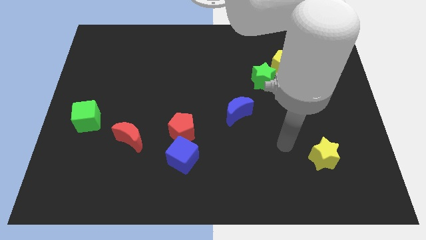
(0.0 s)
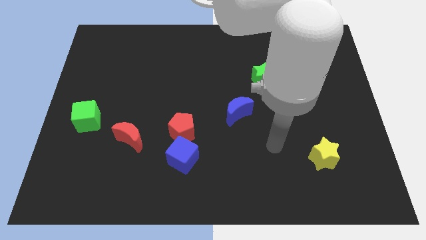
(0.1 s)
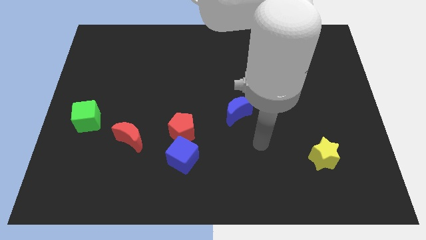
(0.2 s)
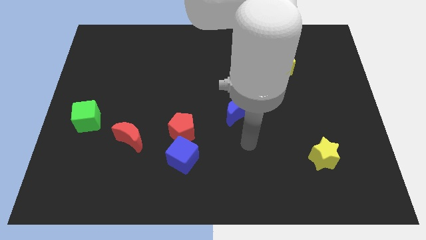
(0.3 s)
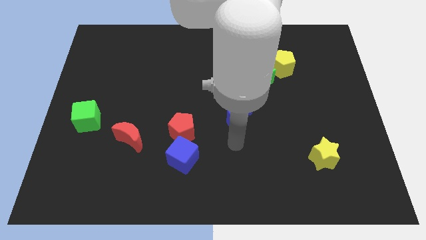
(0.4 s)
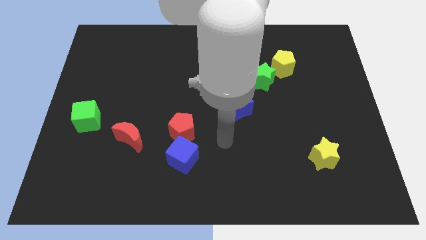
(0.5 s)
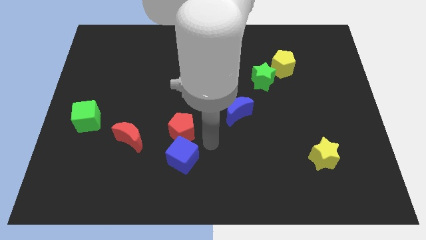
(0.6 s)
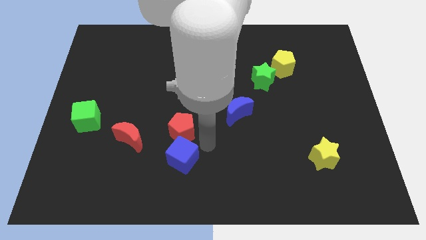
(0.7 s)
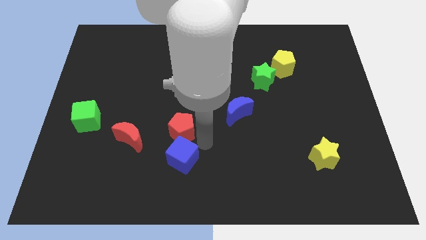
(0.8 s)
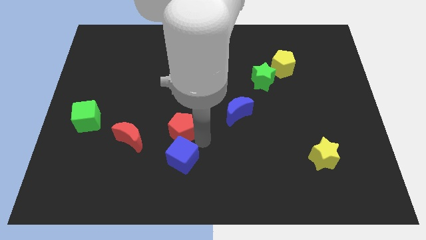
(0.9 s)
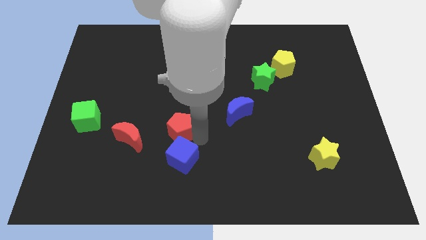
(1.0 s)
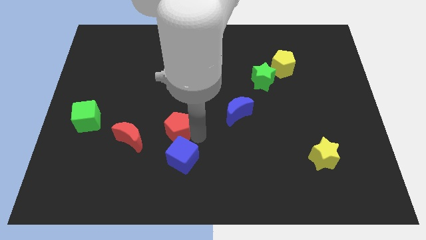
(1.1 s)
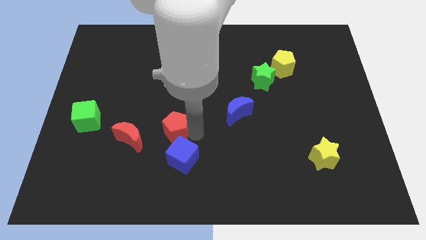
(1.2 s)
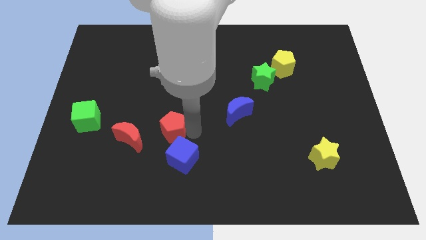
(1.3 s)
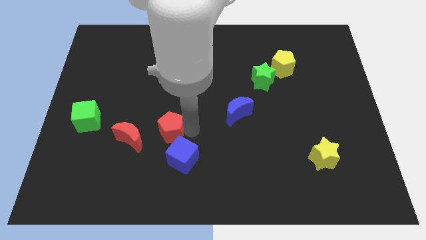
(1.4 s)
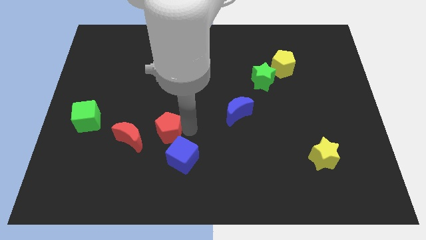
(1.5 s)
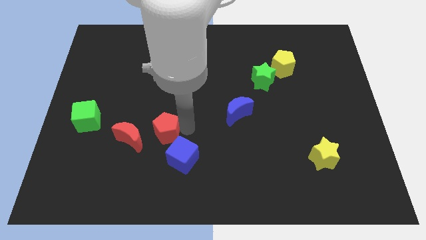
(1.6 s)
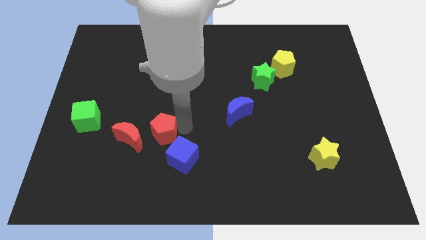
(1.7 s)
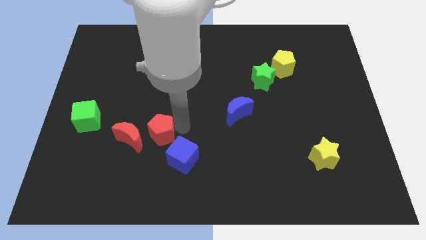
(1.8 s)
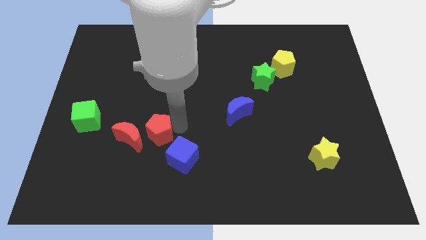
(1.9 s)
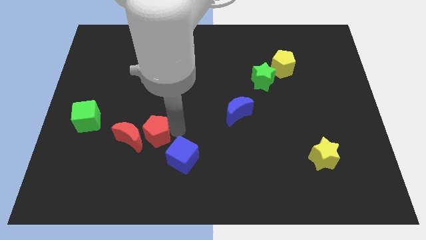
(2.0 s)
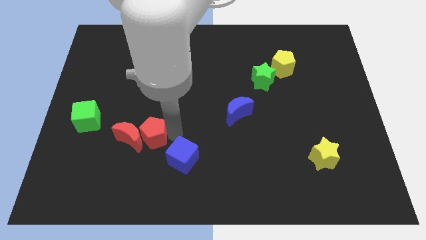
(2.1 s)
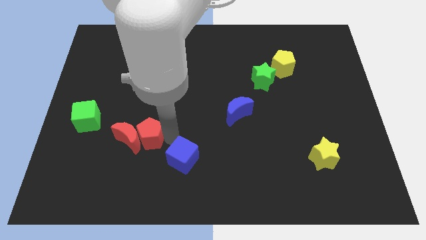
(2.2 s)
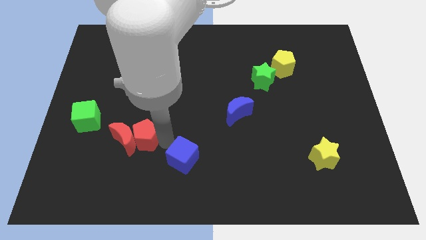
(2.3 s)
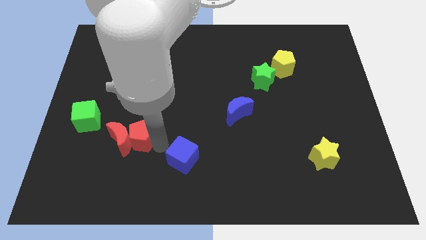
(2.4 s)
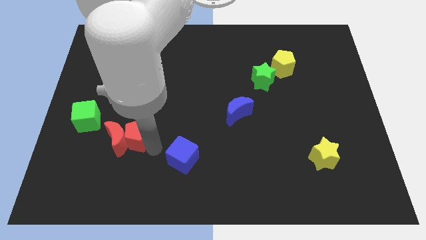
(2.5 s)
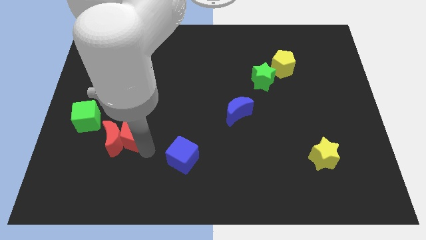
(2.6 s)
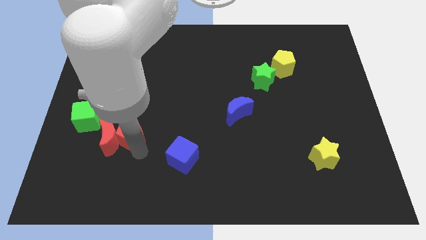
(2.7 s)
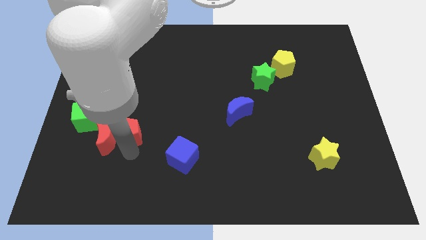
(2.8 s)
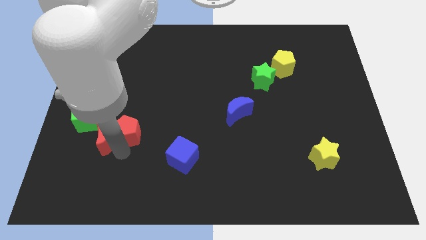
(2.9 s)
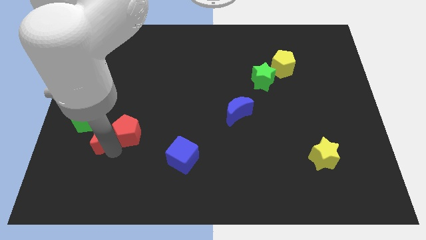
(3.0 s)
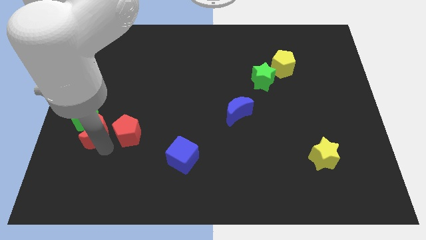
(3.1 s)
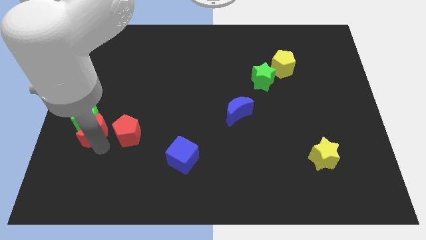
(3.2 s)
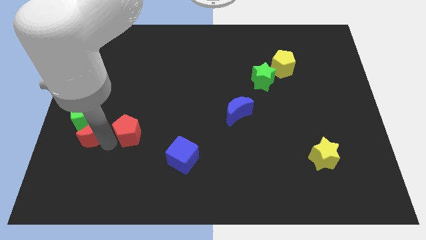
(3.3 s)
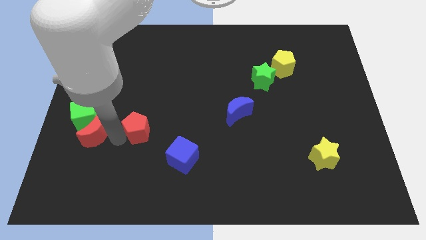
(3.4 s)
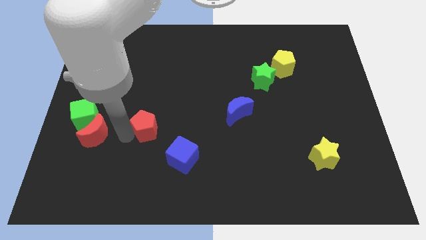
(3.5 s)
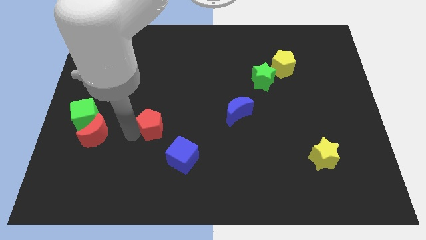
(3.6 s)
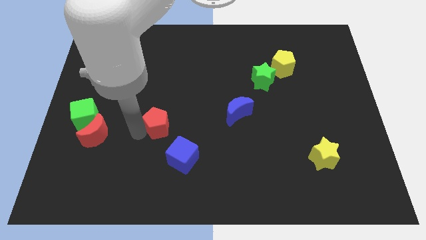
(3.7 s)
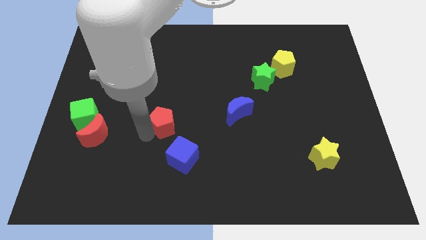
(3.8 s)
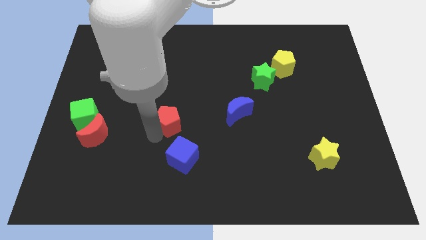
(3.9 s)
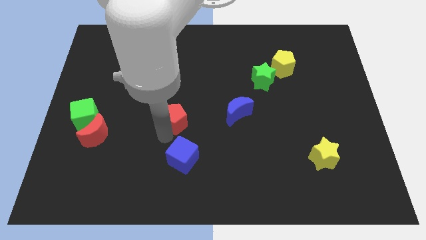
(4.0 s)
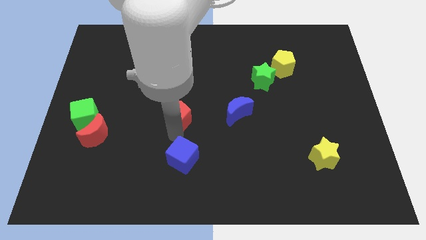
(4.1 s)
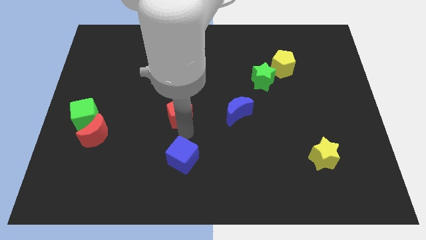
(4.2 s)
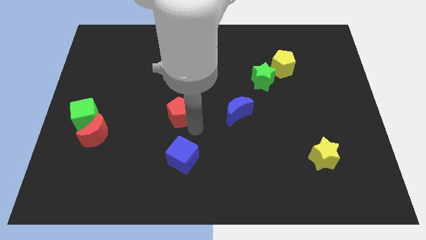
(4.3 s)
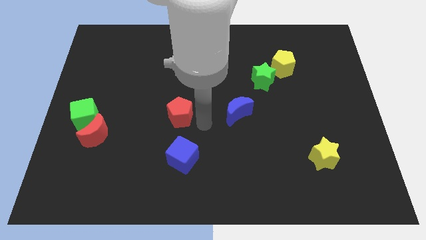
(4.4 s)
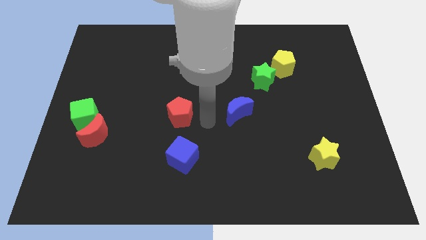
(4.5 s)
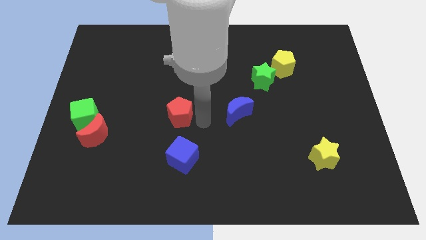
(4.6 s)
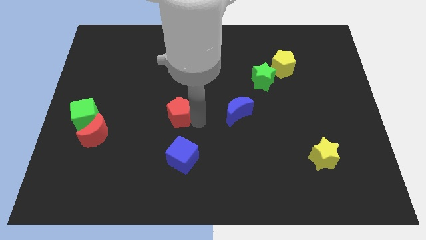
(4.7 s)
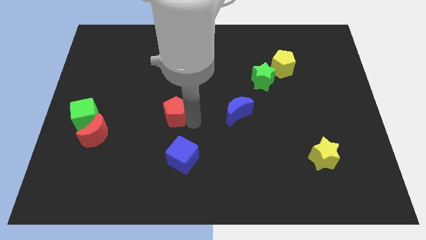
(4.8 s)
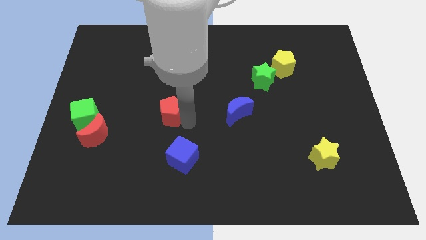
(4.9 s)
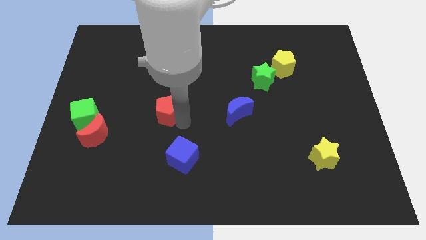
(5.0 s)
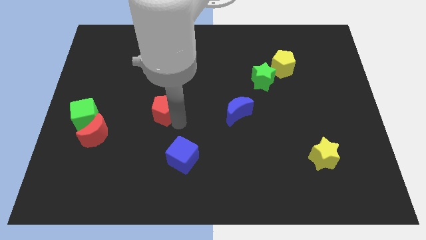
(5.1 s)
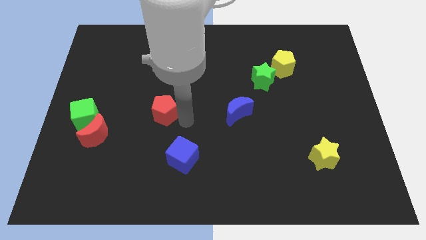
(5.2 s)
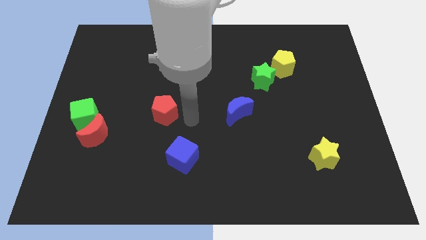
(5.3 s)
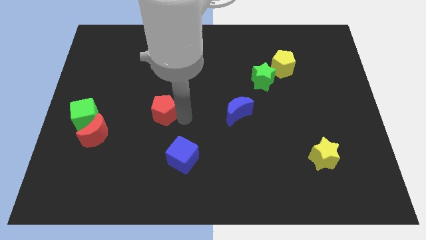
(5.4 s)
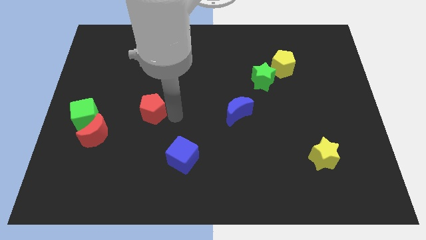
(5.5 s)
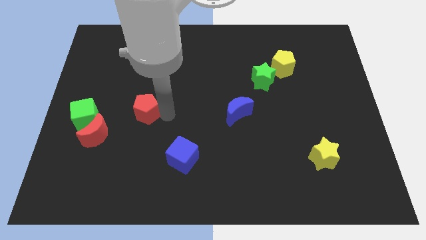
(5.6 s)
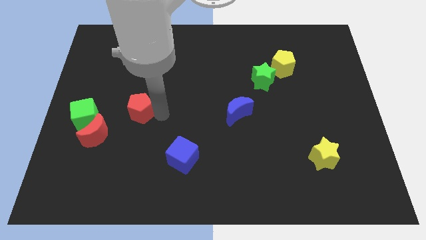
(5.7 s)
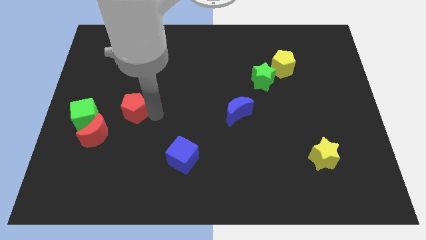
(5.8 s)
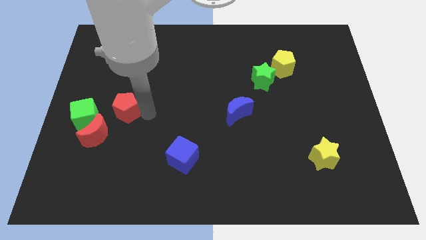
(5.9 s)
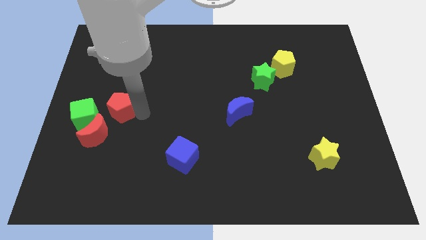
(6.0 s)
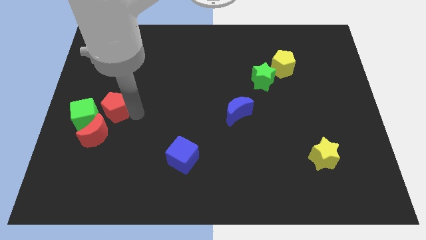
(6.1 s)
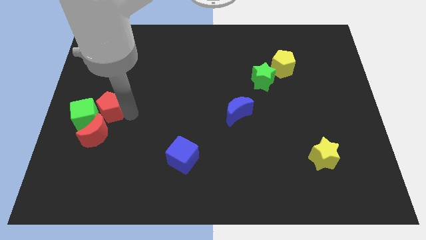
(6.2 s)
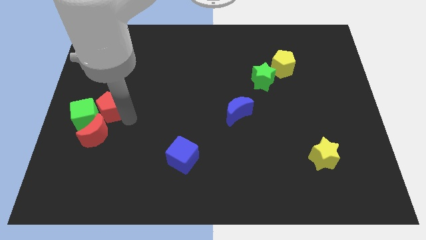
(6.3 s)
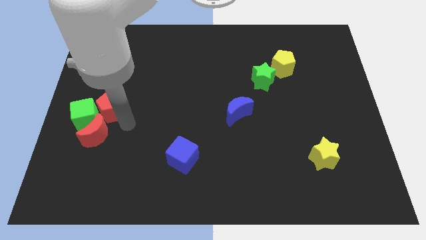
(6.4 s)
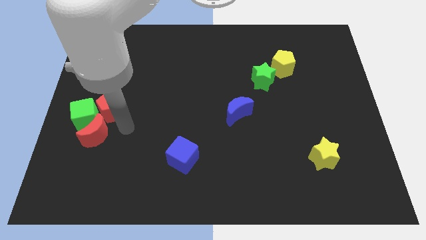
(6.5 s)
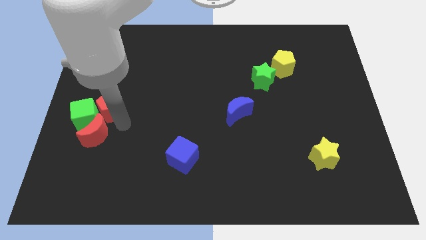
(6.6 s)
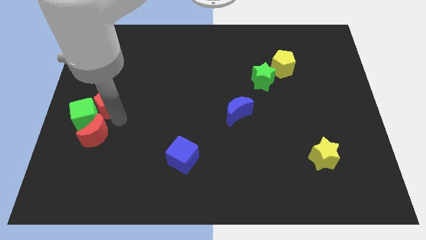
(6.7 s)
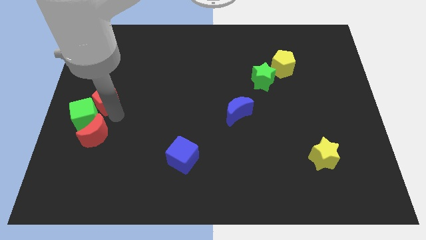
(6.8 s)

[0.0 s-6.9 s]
push the red pentagon to the center left

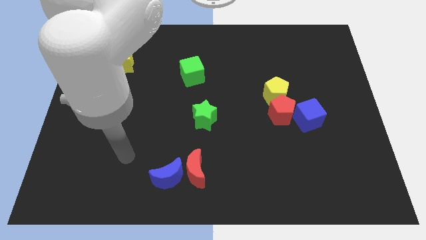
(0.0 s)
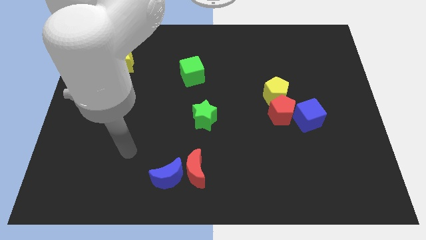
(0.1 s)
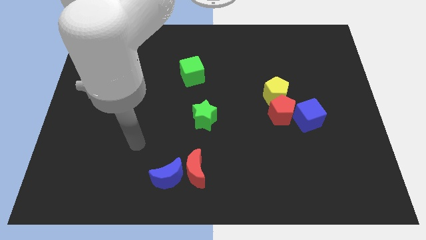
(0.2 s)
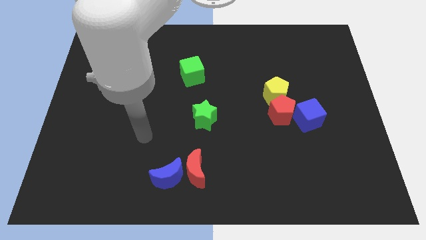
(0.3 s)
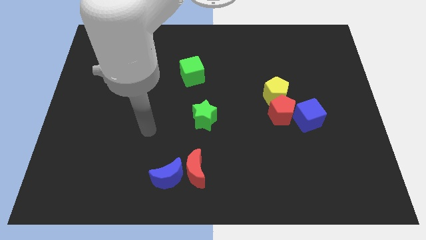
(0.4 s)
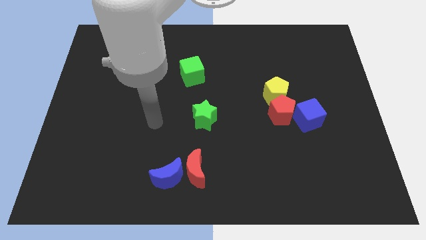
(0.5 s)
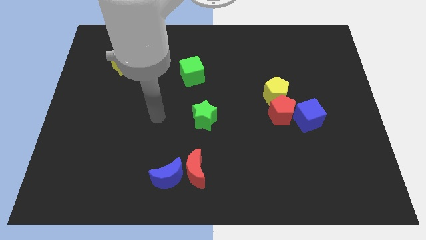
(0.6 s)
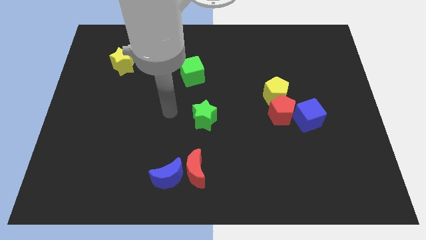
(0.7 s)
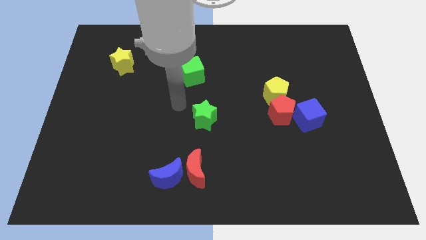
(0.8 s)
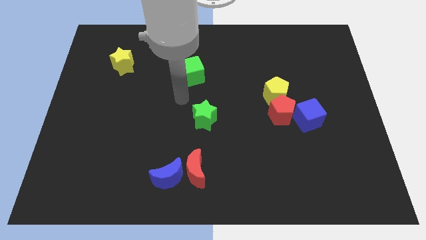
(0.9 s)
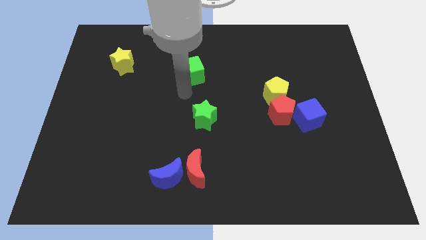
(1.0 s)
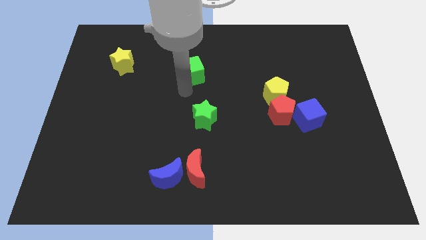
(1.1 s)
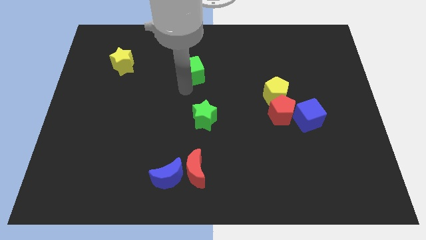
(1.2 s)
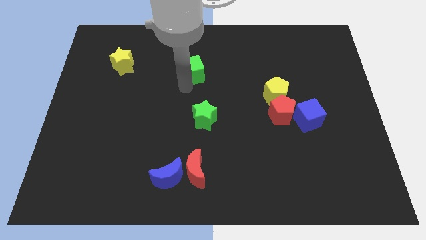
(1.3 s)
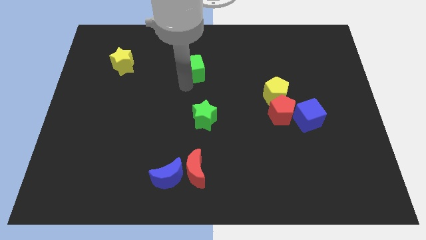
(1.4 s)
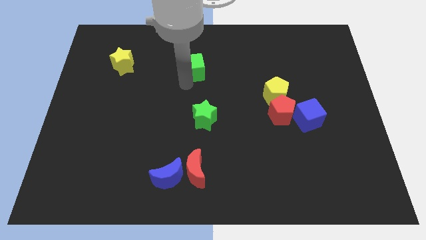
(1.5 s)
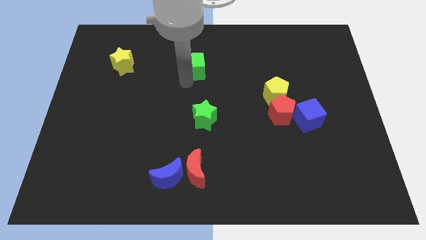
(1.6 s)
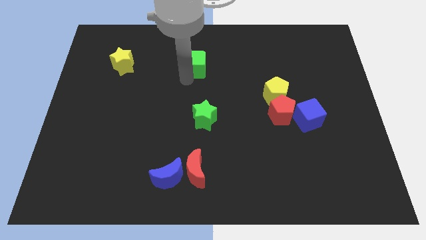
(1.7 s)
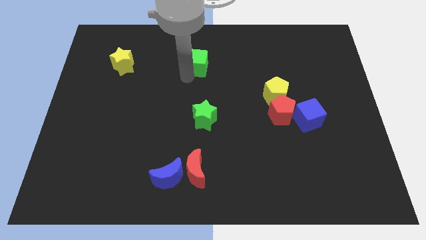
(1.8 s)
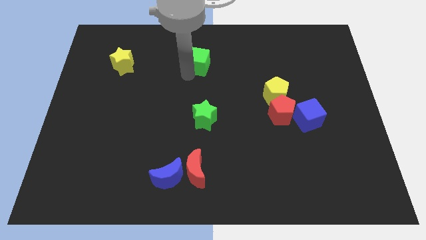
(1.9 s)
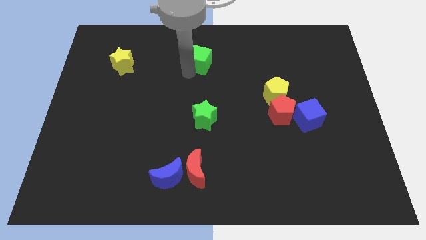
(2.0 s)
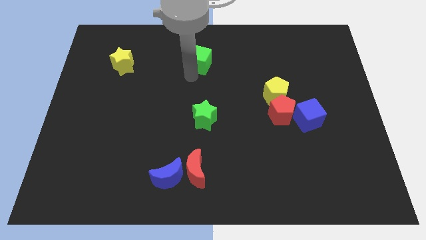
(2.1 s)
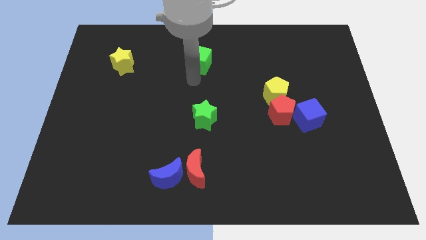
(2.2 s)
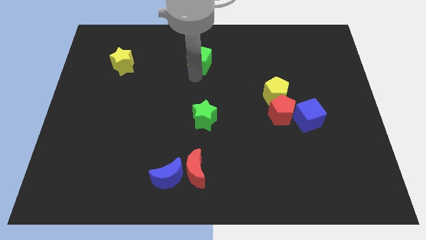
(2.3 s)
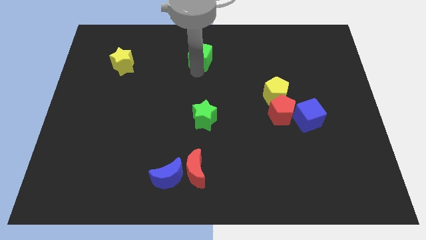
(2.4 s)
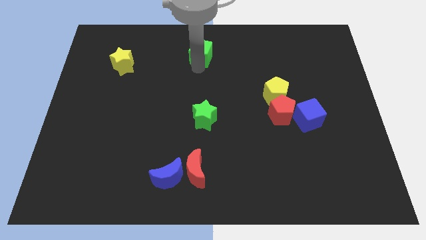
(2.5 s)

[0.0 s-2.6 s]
put the green cube to the towards your base
